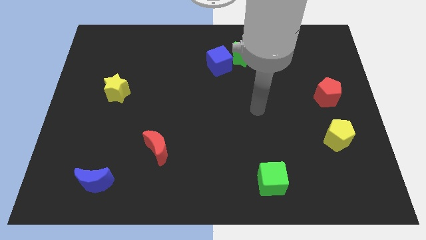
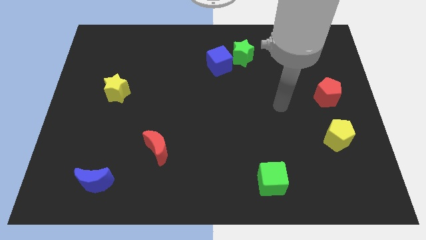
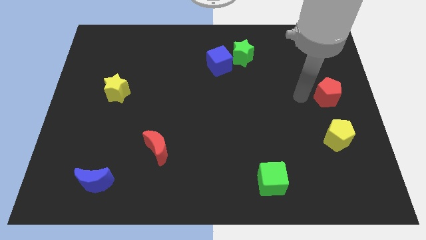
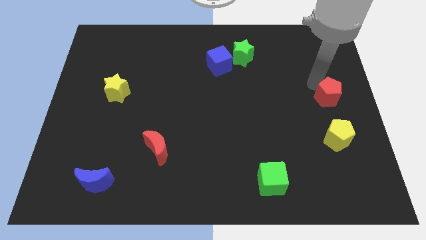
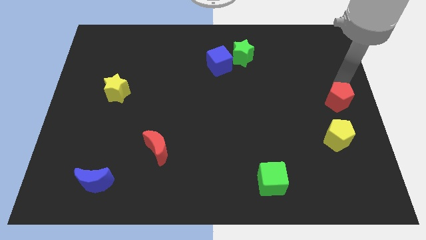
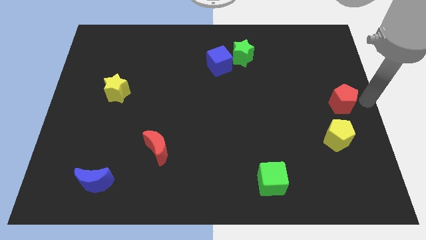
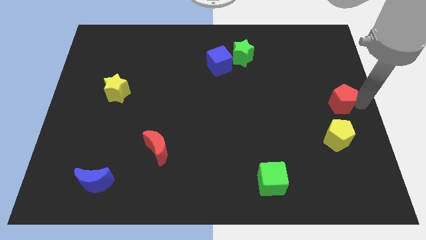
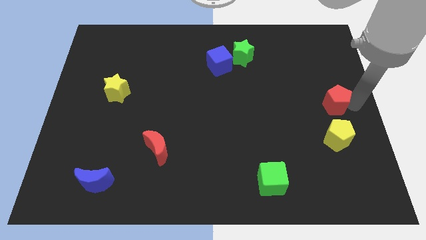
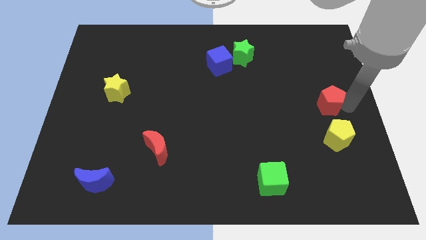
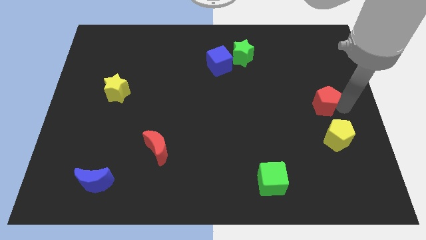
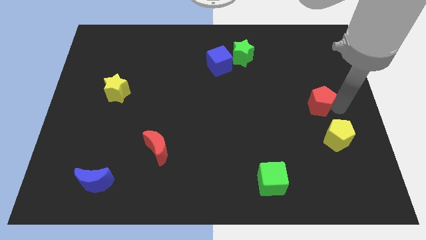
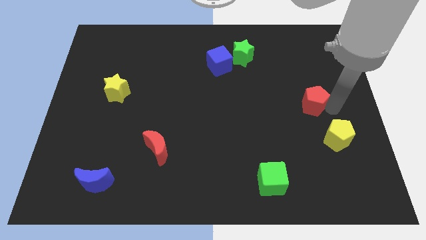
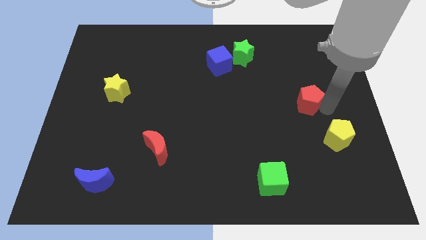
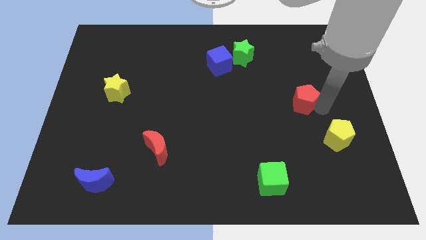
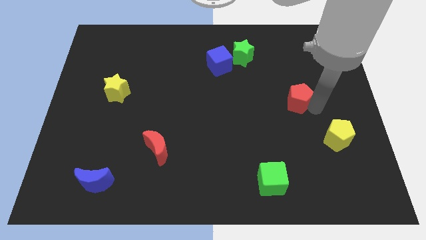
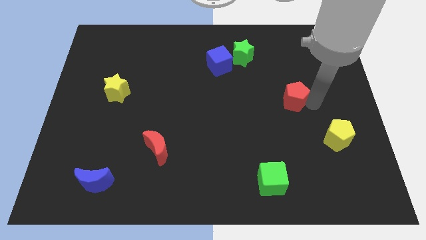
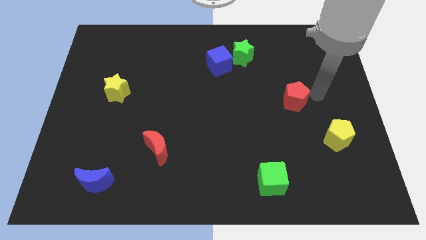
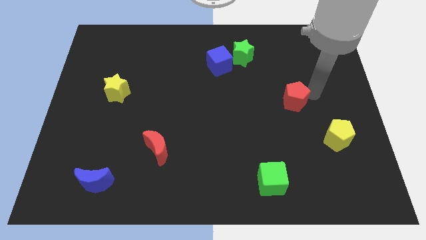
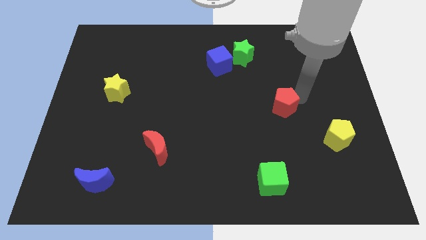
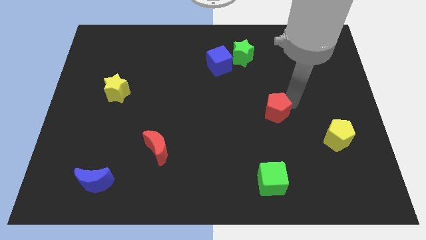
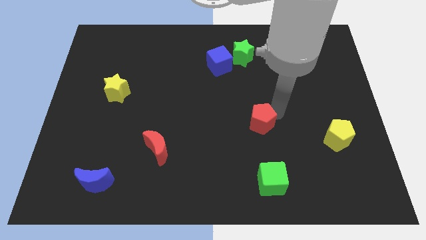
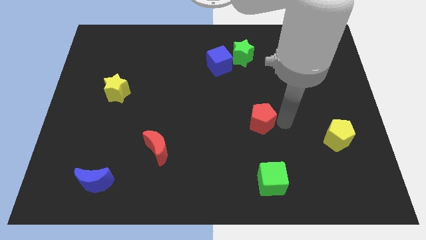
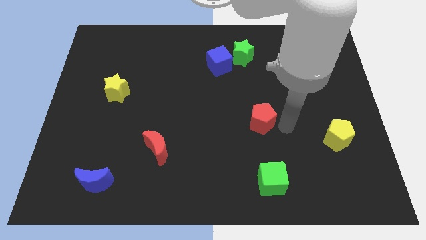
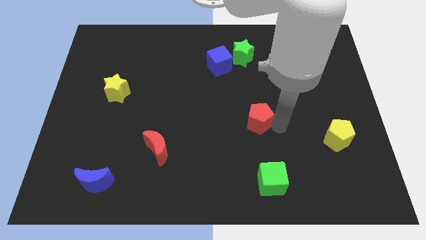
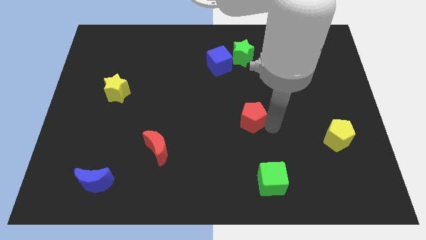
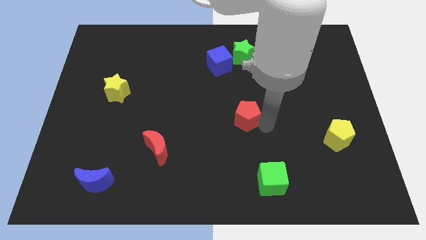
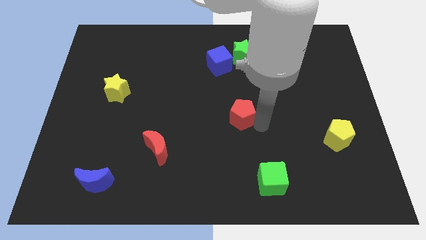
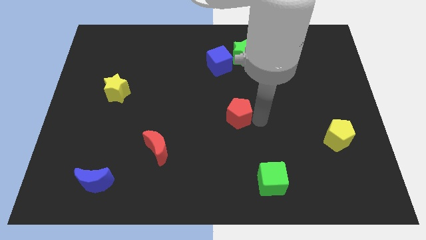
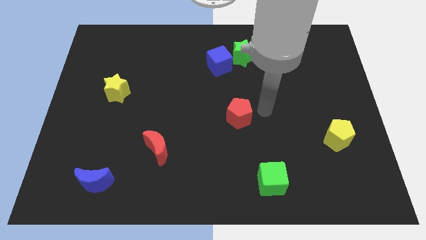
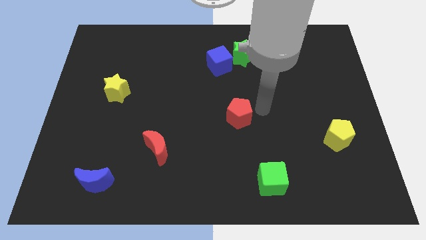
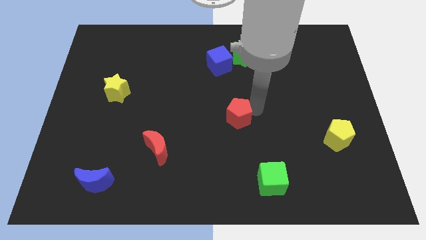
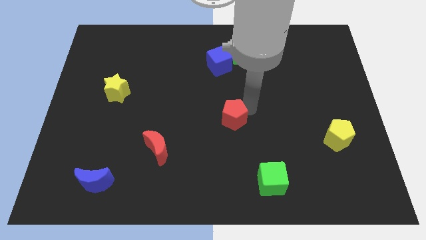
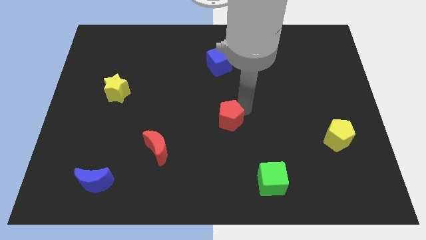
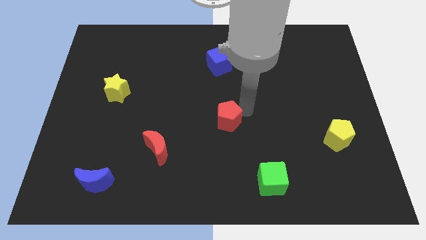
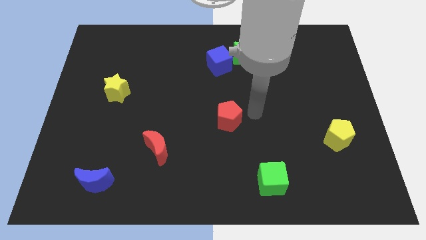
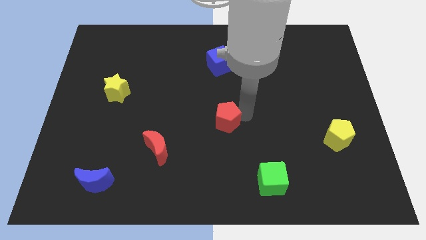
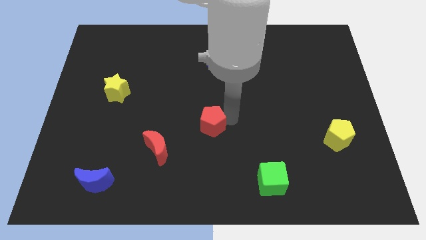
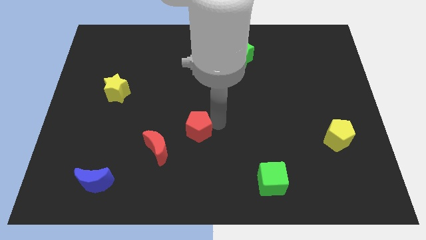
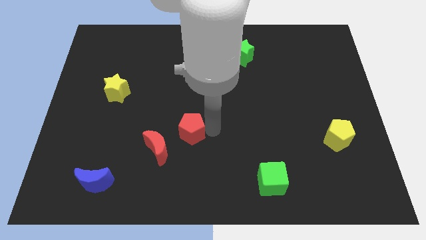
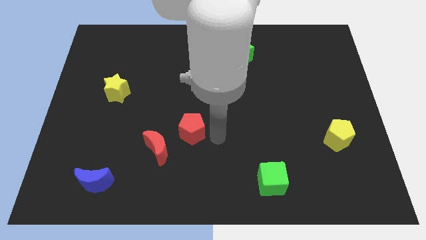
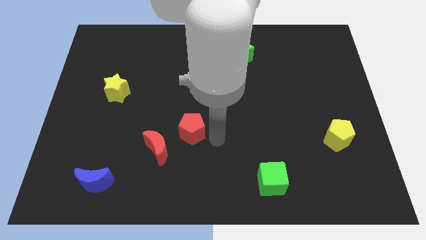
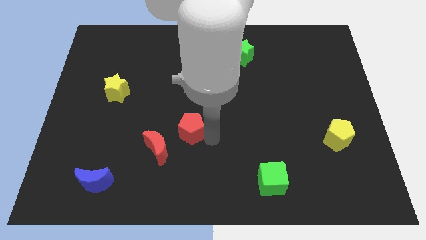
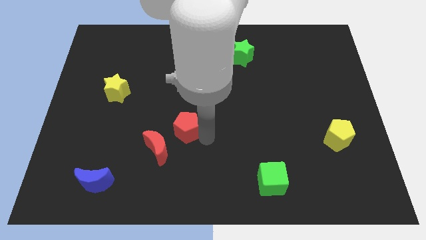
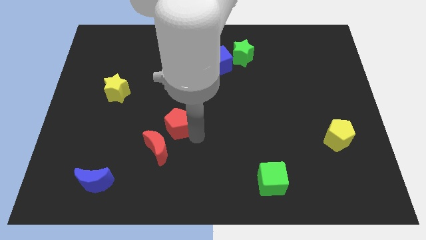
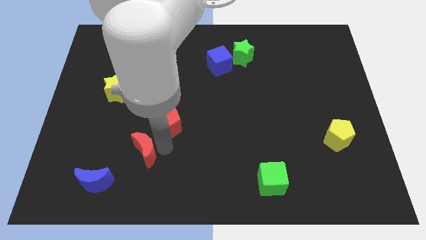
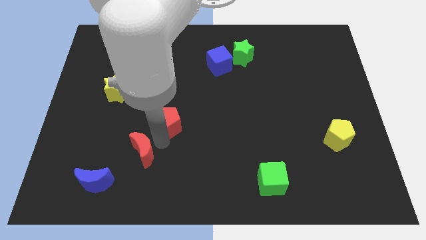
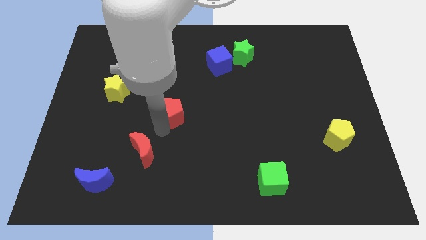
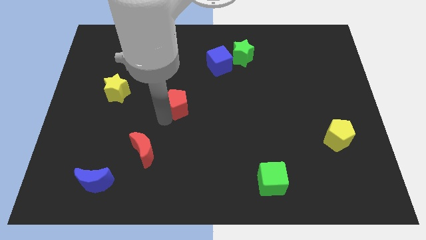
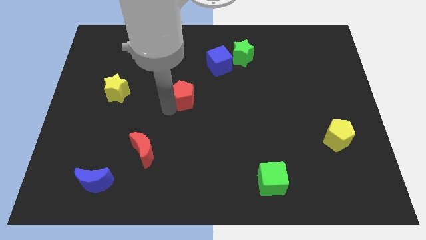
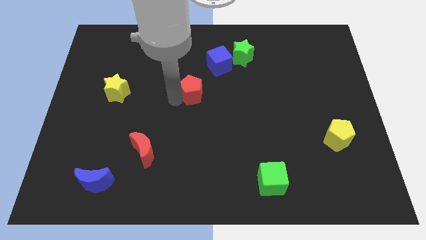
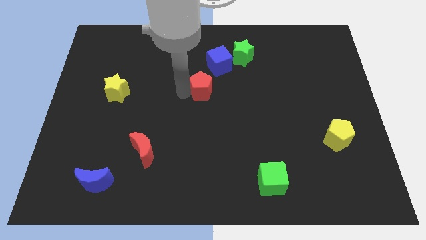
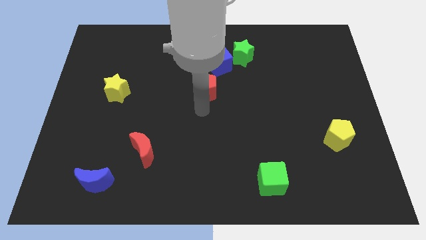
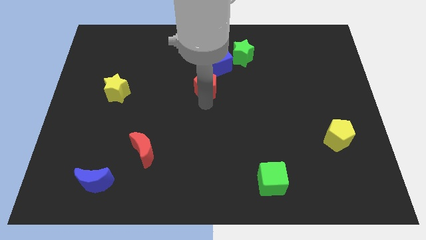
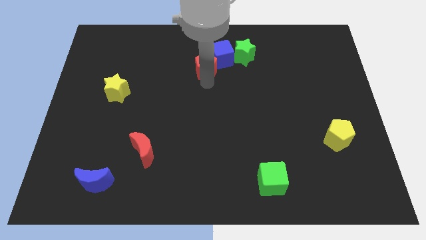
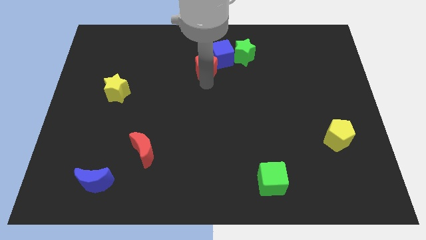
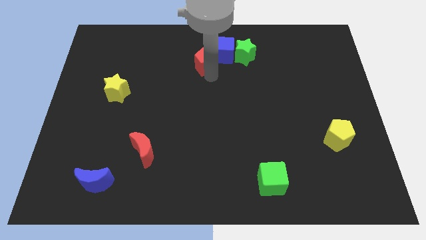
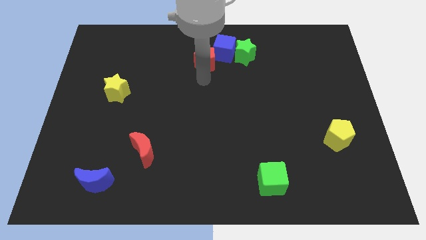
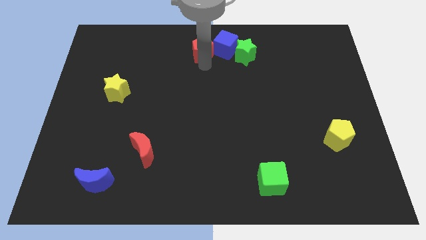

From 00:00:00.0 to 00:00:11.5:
slide the red pentagon to the top

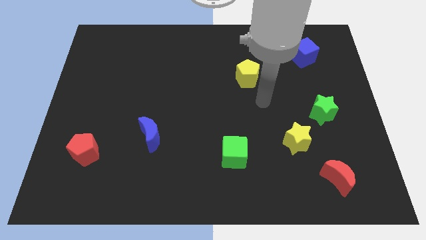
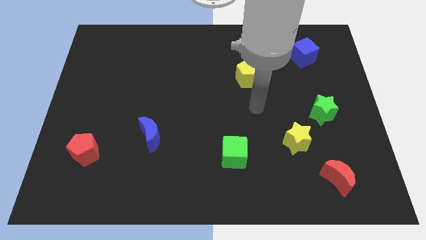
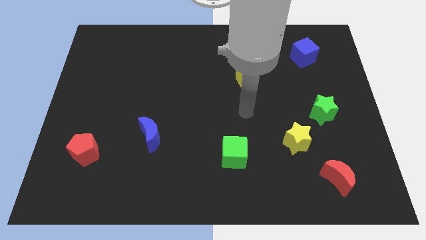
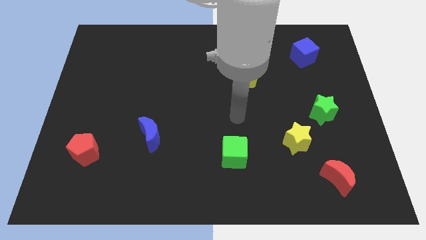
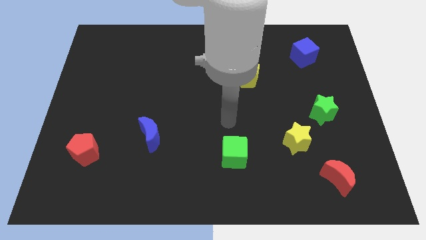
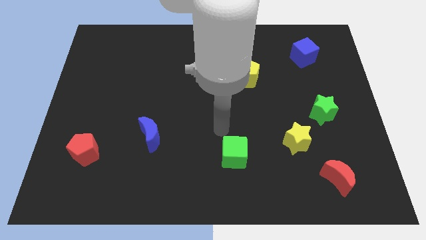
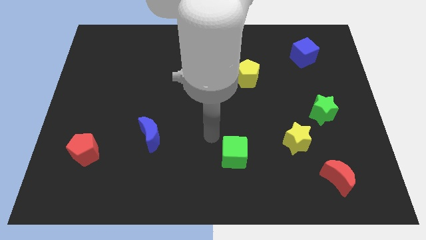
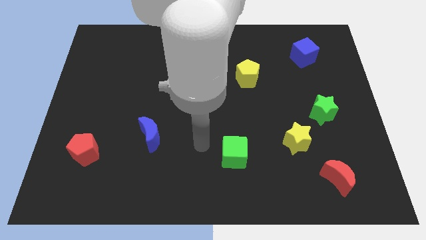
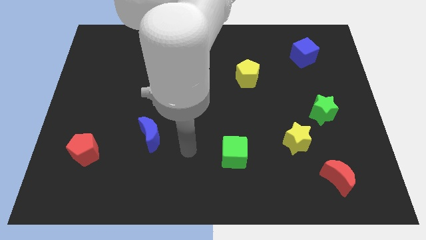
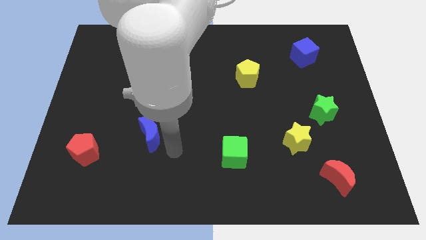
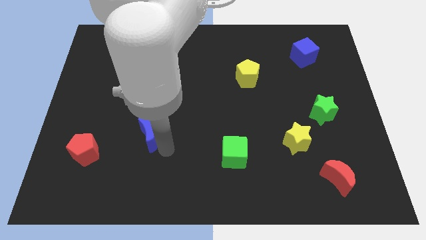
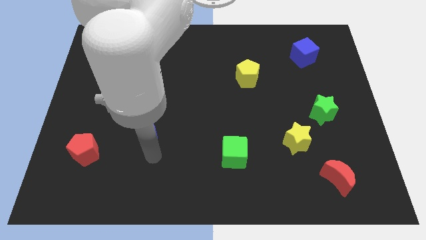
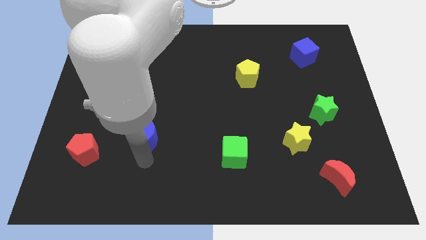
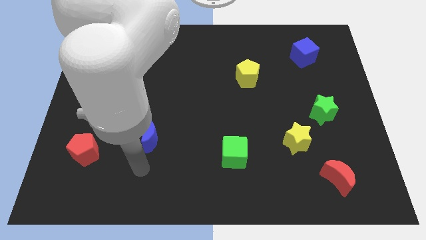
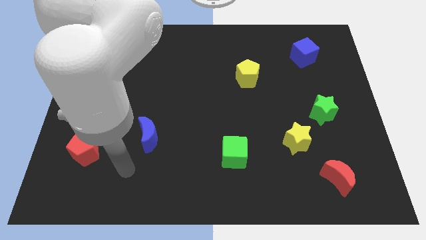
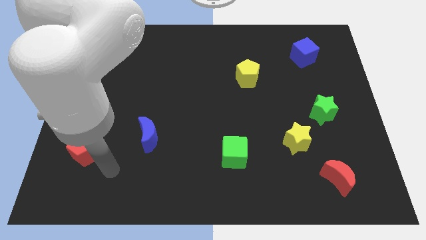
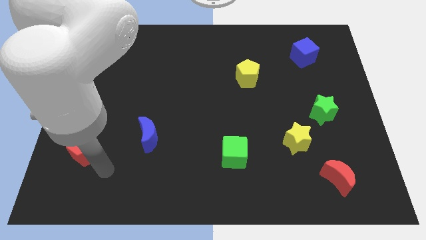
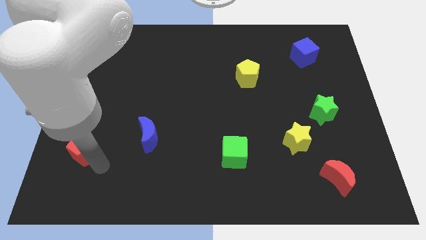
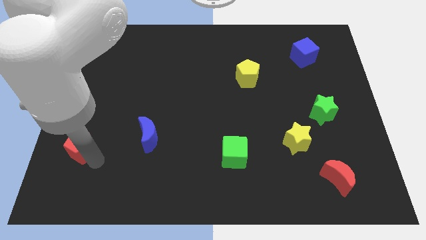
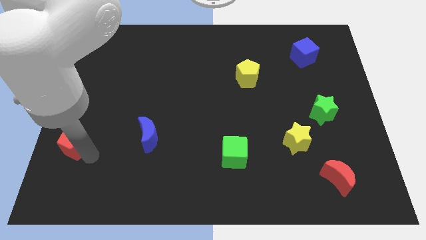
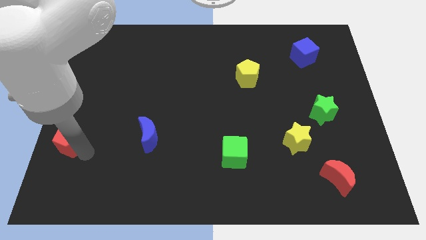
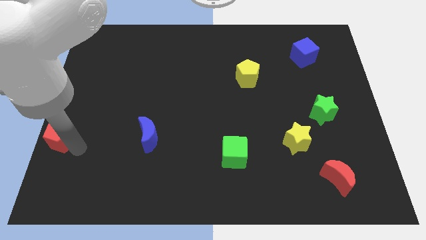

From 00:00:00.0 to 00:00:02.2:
move the red pentagon to the left side
